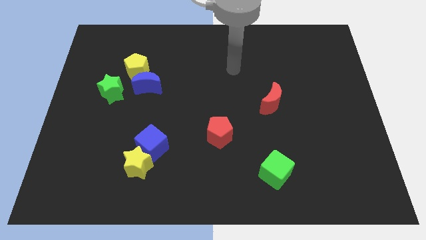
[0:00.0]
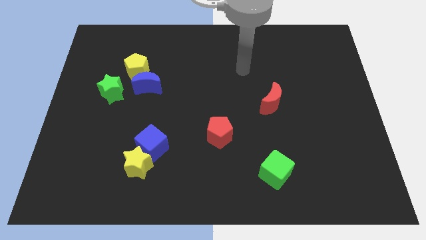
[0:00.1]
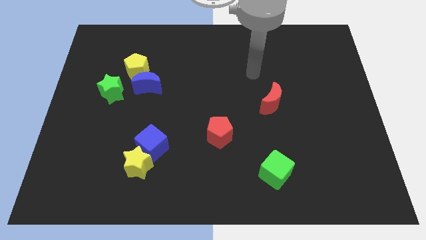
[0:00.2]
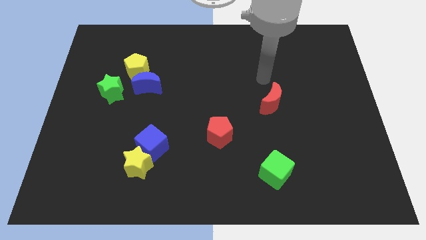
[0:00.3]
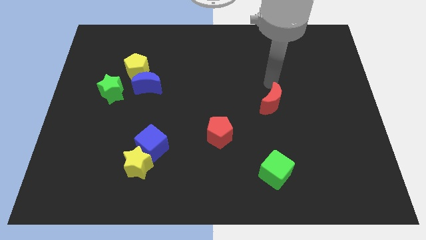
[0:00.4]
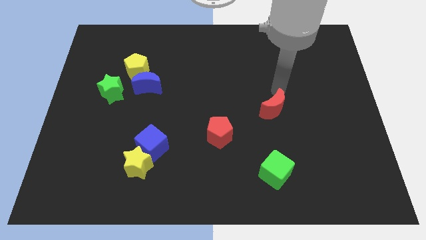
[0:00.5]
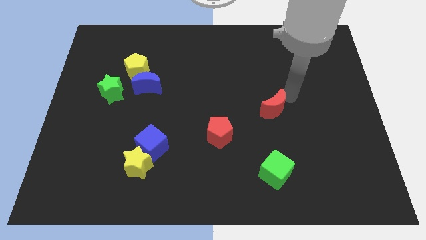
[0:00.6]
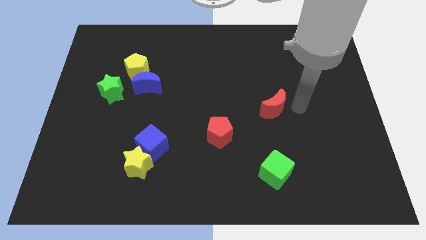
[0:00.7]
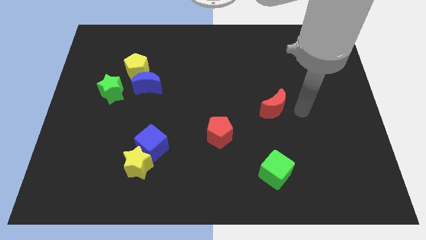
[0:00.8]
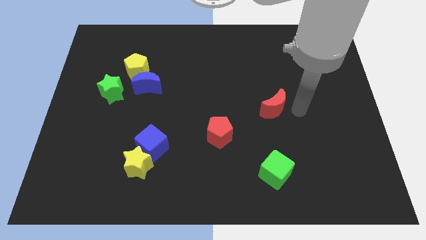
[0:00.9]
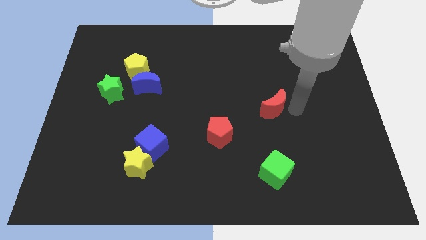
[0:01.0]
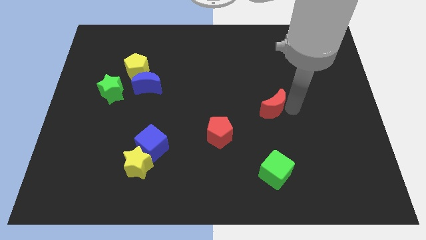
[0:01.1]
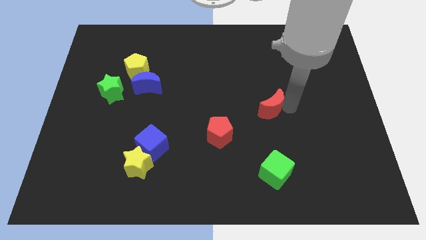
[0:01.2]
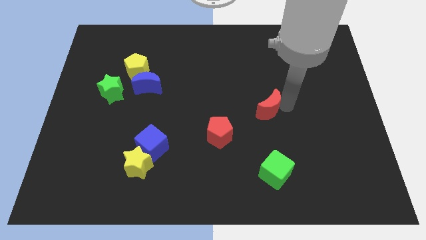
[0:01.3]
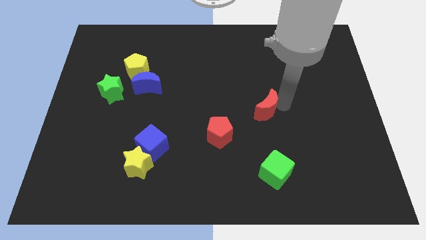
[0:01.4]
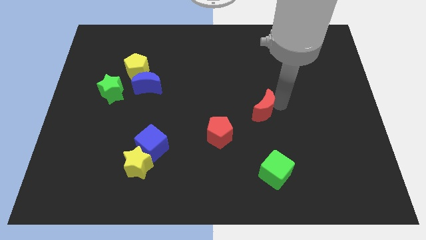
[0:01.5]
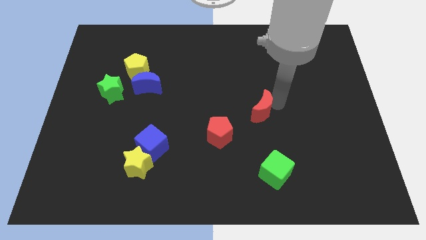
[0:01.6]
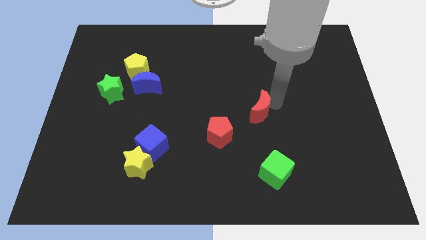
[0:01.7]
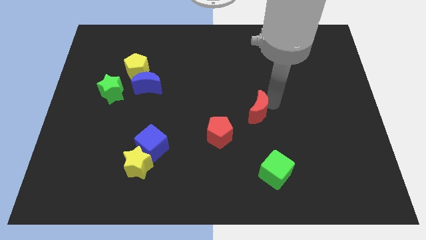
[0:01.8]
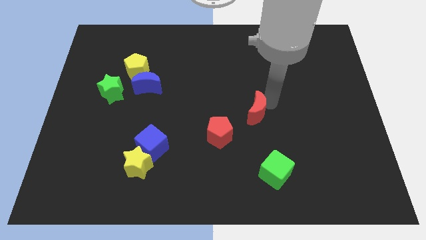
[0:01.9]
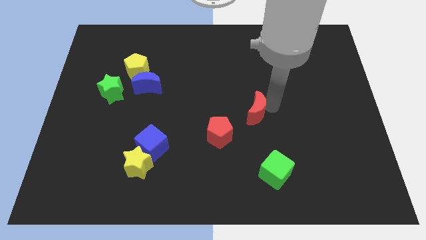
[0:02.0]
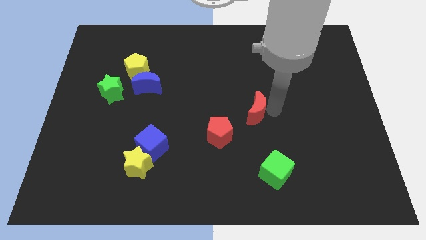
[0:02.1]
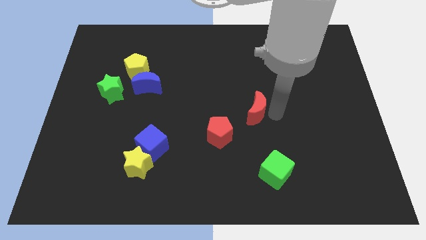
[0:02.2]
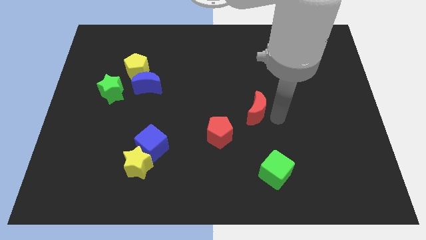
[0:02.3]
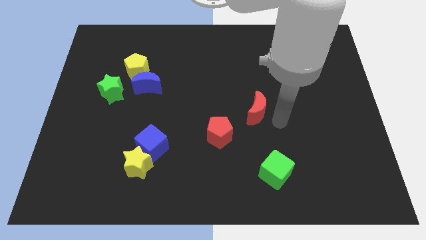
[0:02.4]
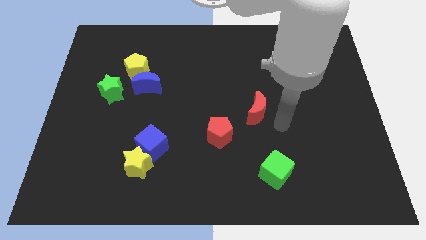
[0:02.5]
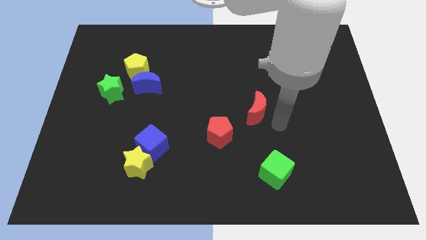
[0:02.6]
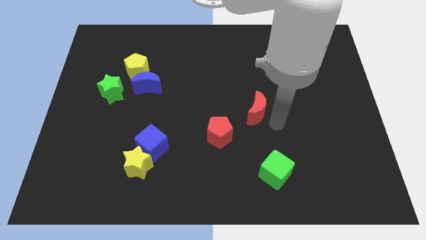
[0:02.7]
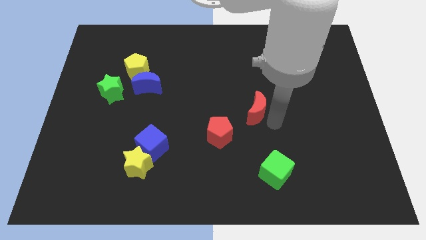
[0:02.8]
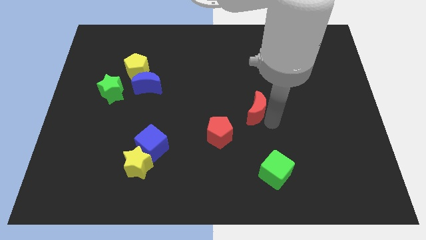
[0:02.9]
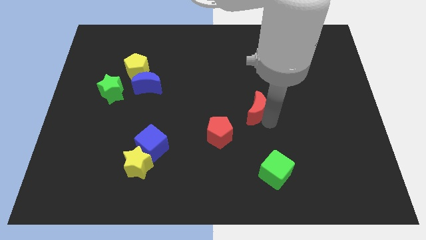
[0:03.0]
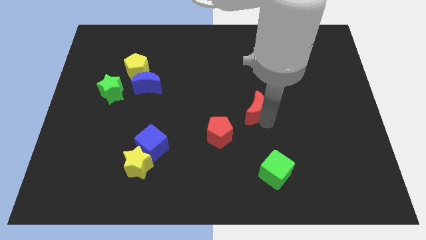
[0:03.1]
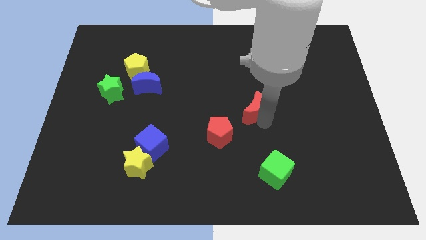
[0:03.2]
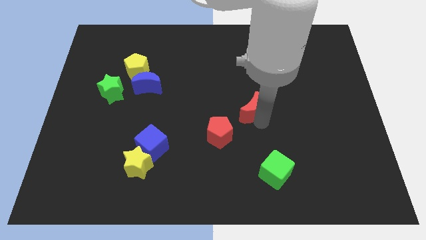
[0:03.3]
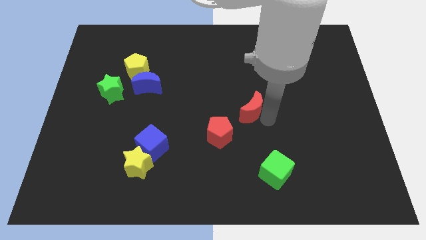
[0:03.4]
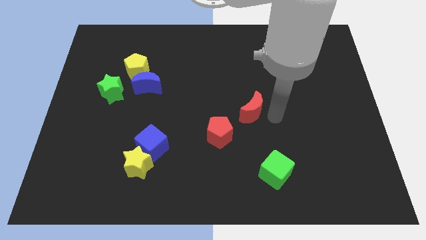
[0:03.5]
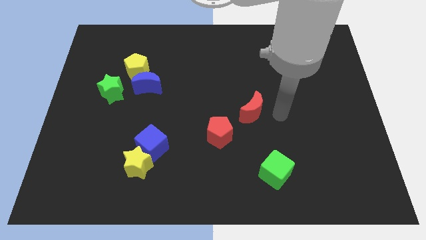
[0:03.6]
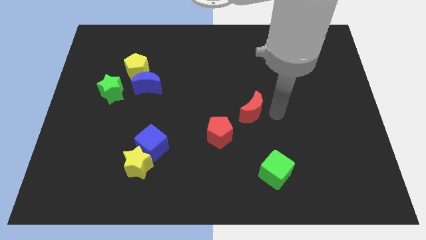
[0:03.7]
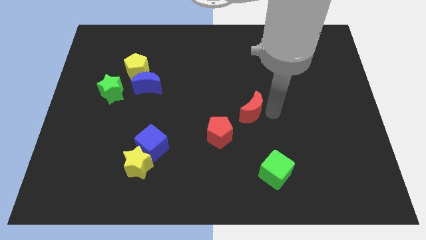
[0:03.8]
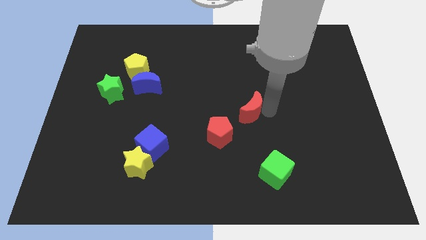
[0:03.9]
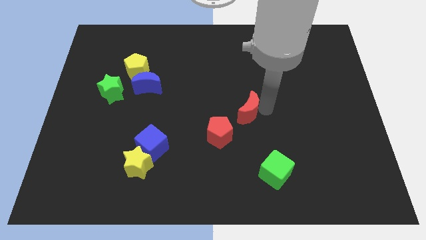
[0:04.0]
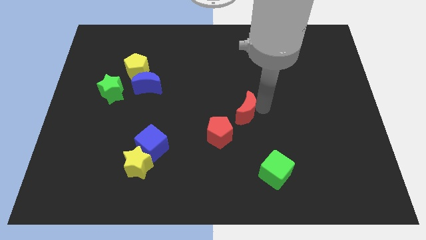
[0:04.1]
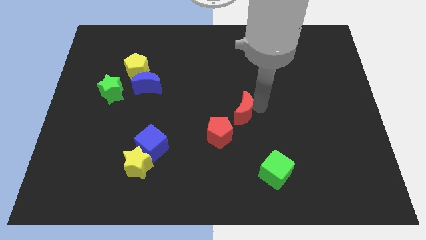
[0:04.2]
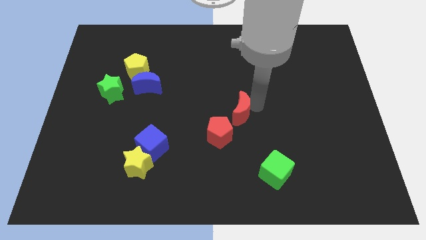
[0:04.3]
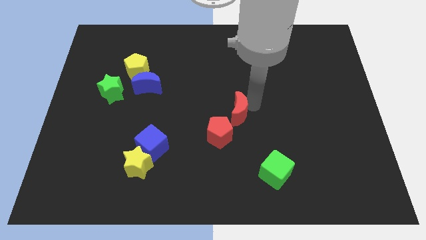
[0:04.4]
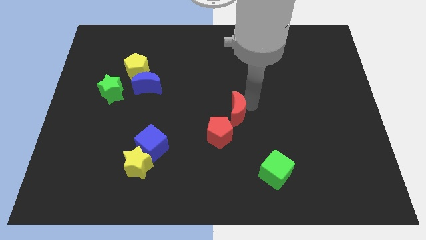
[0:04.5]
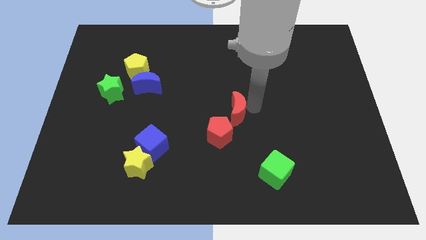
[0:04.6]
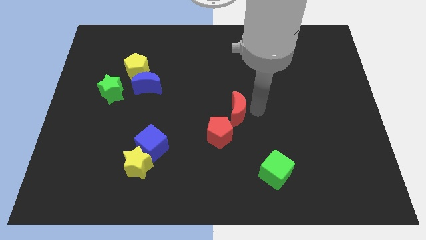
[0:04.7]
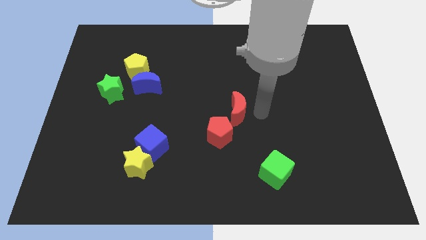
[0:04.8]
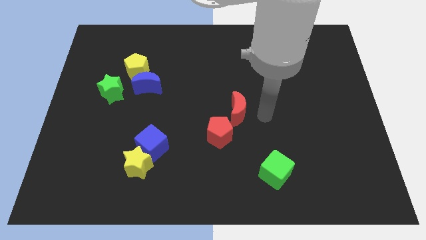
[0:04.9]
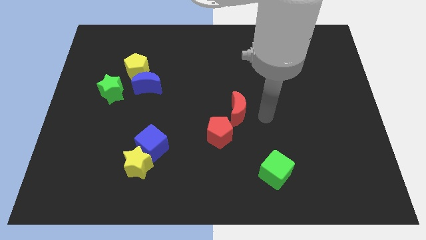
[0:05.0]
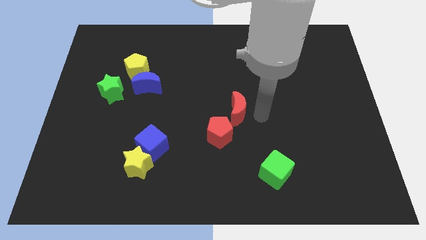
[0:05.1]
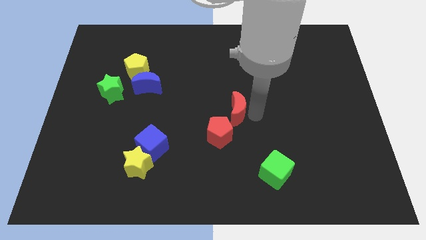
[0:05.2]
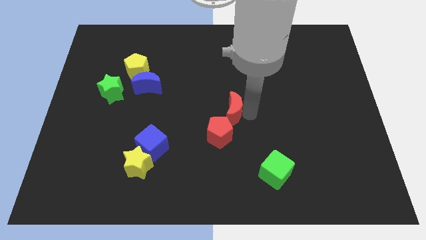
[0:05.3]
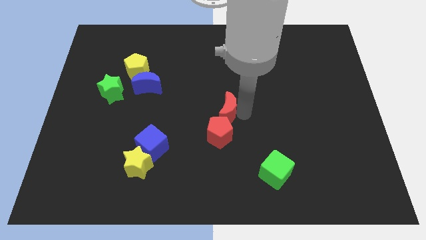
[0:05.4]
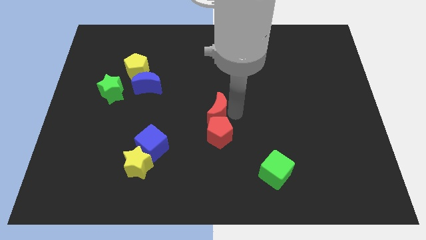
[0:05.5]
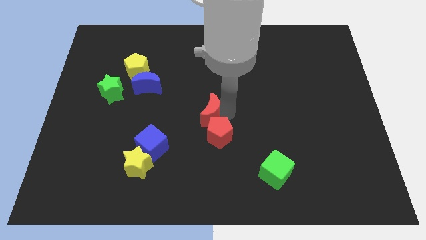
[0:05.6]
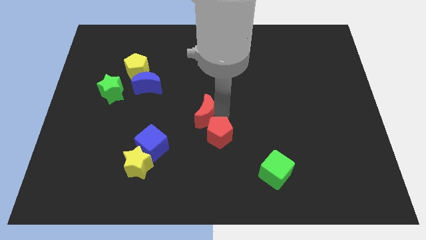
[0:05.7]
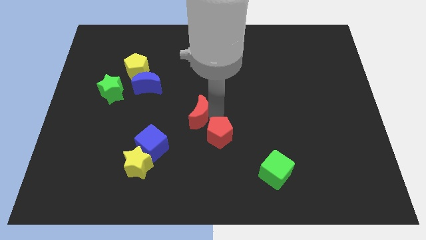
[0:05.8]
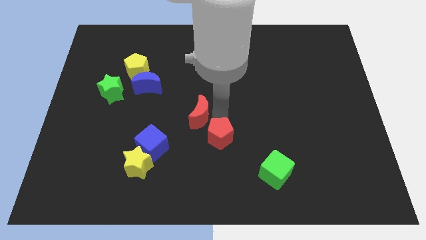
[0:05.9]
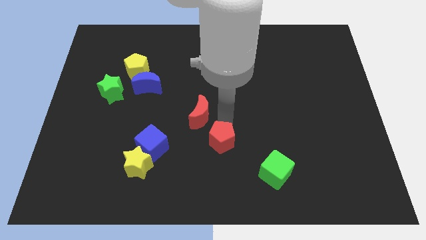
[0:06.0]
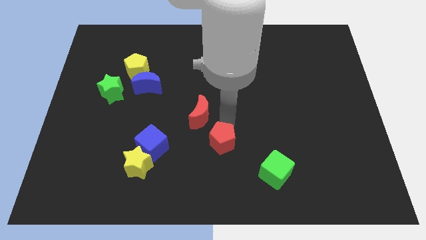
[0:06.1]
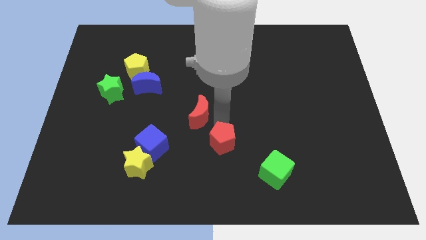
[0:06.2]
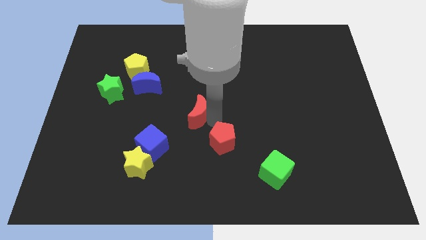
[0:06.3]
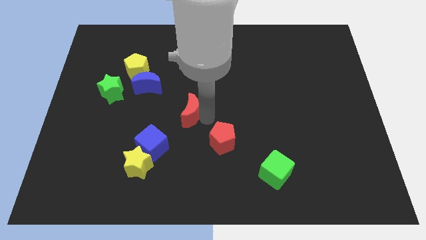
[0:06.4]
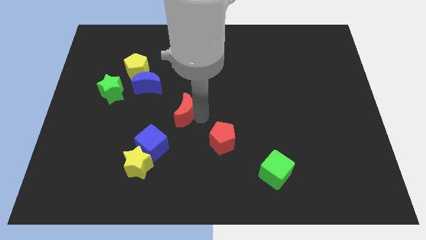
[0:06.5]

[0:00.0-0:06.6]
move the red moon left

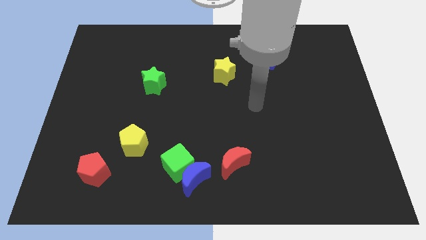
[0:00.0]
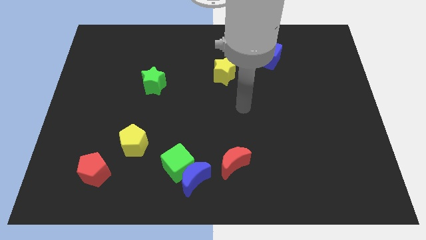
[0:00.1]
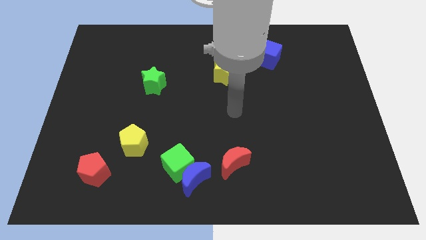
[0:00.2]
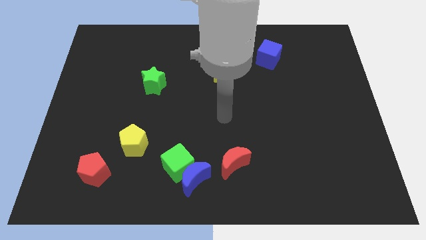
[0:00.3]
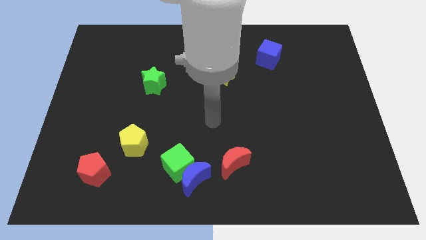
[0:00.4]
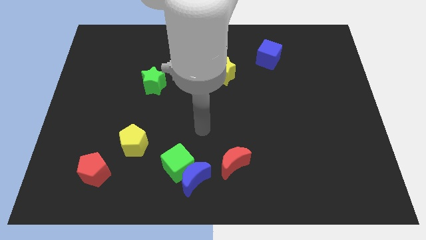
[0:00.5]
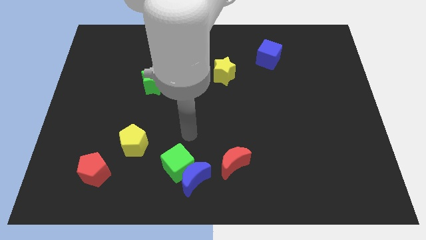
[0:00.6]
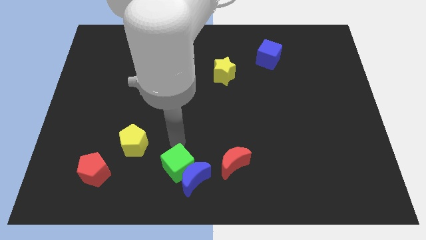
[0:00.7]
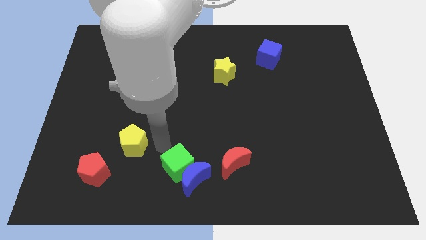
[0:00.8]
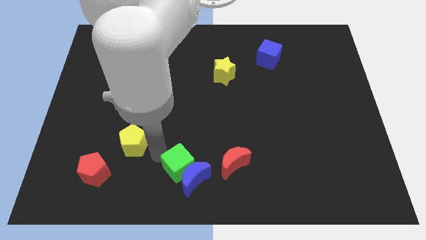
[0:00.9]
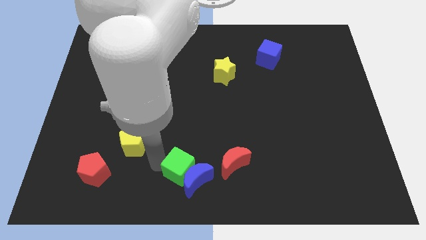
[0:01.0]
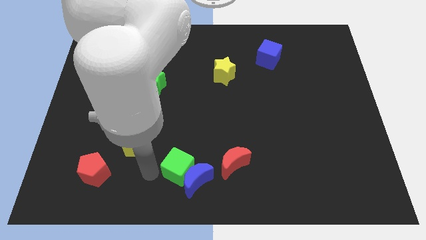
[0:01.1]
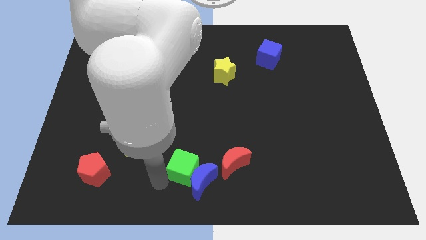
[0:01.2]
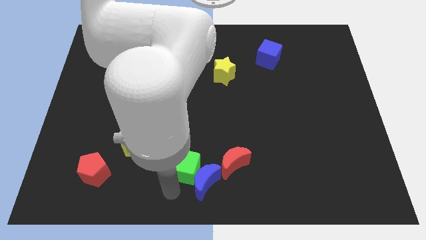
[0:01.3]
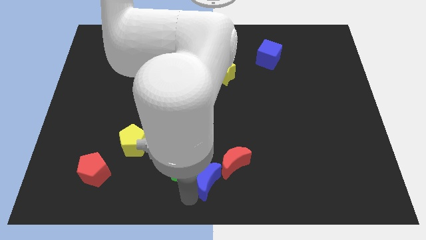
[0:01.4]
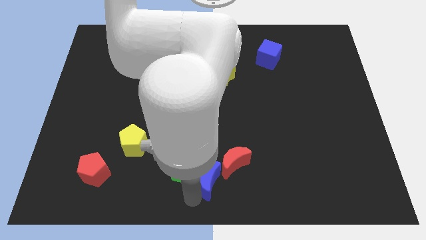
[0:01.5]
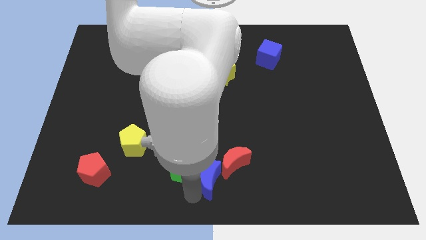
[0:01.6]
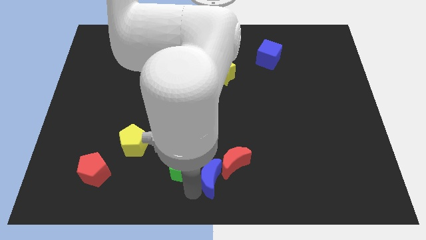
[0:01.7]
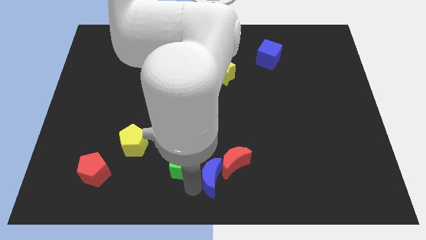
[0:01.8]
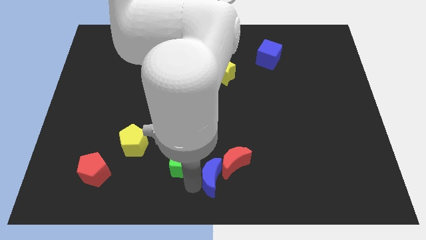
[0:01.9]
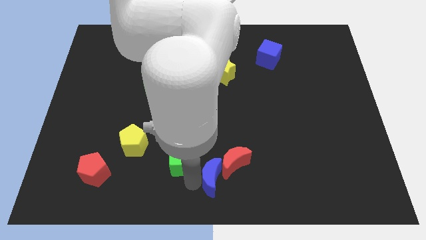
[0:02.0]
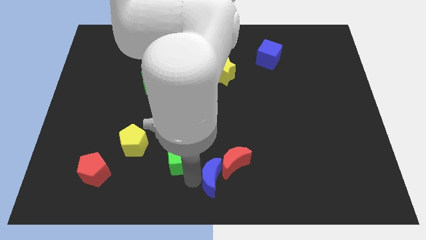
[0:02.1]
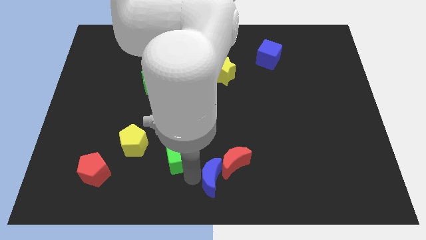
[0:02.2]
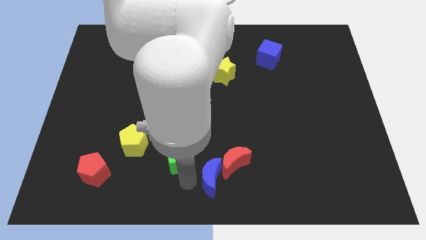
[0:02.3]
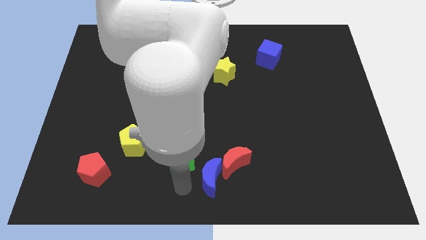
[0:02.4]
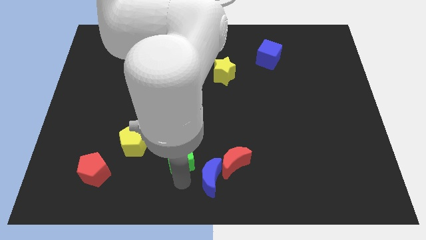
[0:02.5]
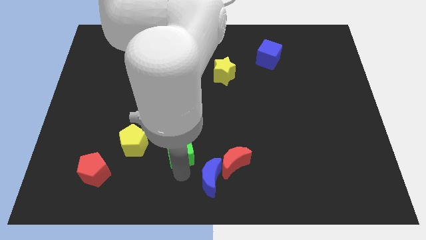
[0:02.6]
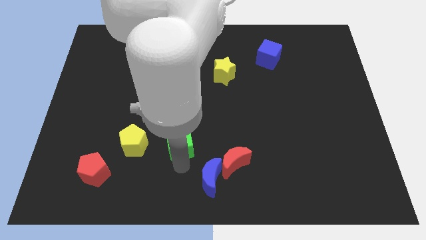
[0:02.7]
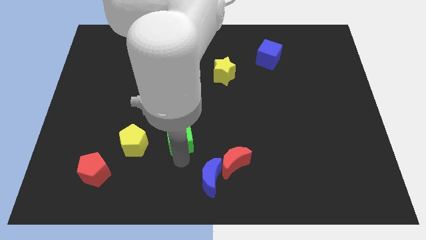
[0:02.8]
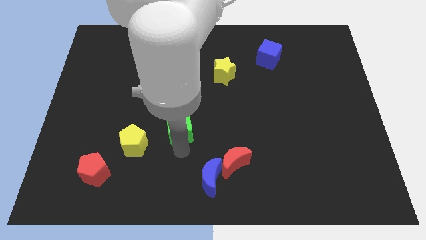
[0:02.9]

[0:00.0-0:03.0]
move the green cube upwards a little
